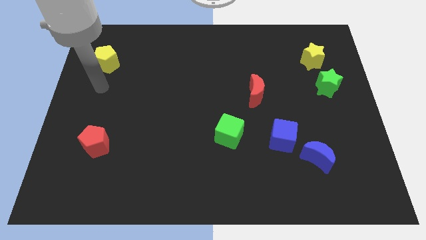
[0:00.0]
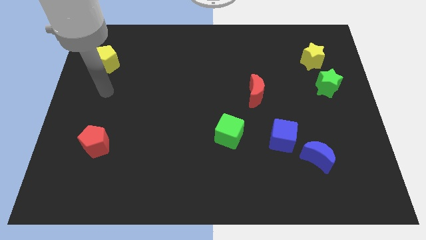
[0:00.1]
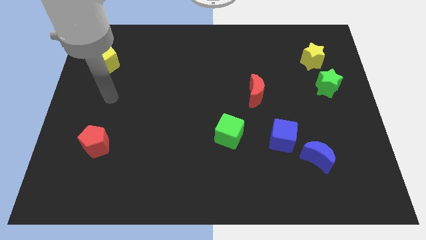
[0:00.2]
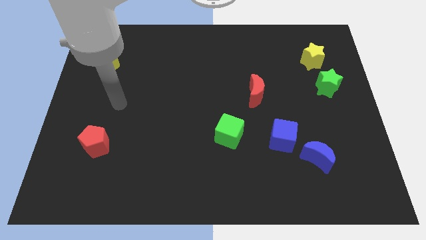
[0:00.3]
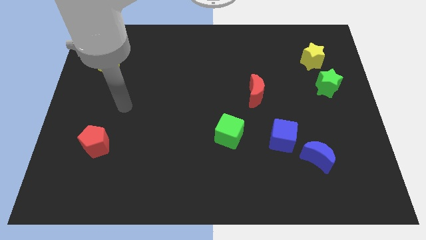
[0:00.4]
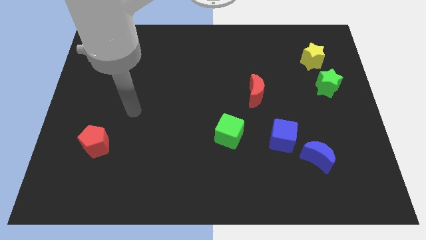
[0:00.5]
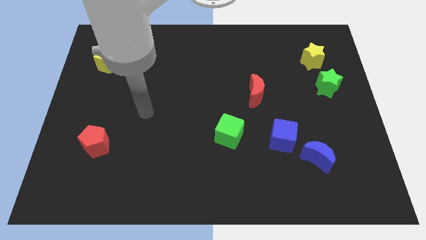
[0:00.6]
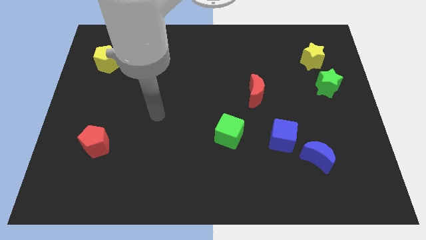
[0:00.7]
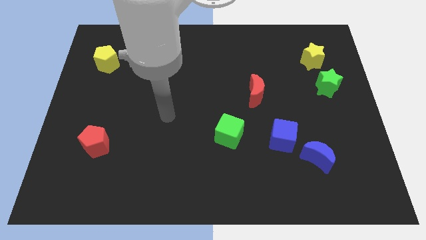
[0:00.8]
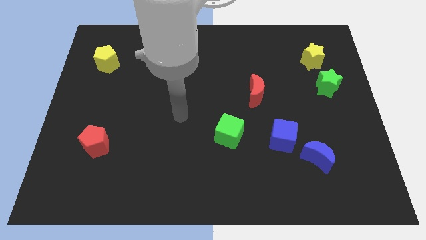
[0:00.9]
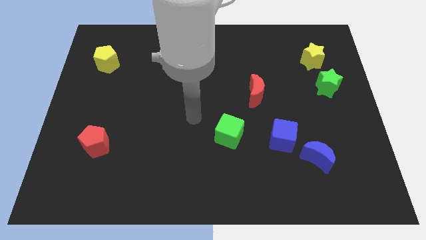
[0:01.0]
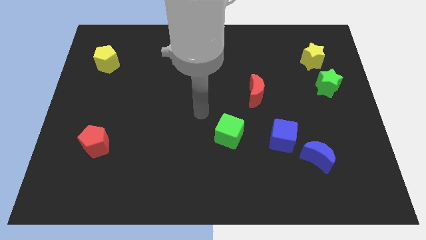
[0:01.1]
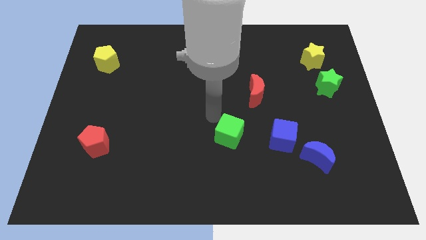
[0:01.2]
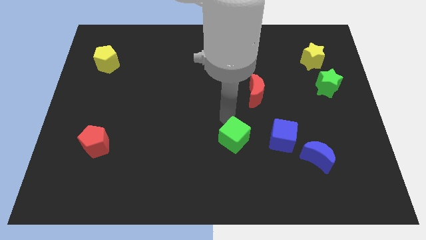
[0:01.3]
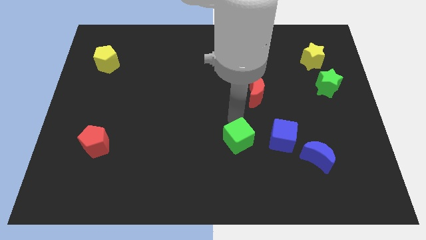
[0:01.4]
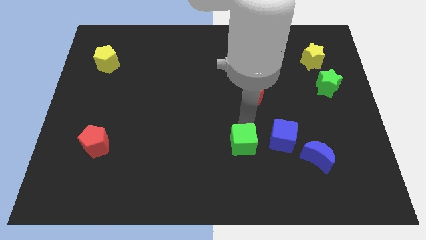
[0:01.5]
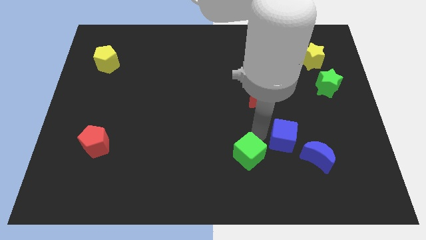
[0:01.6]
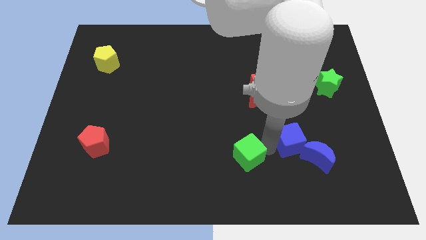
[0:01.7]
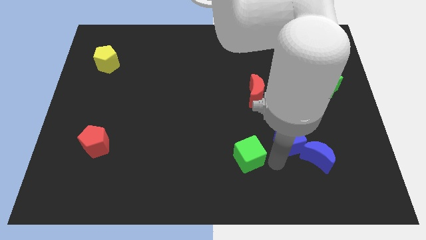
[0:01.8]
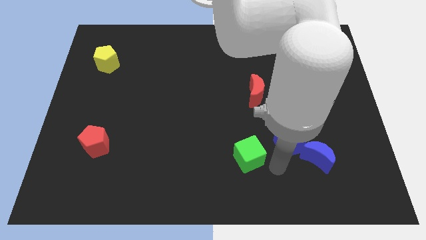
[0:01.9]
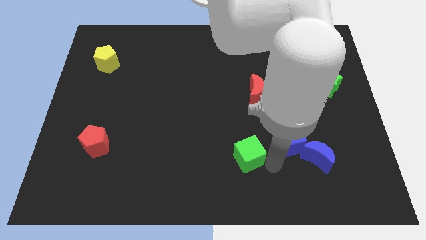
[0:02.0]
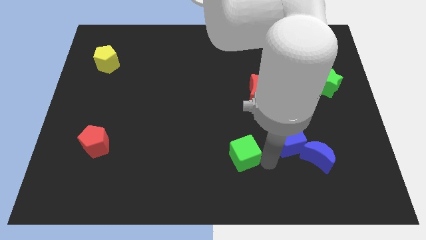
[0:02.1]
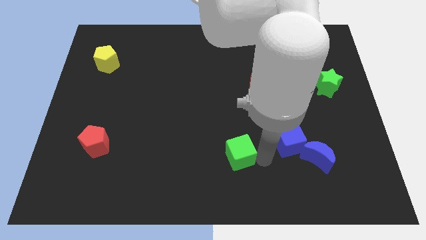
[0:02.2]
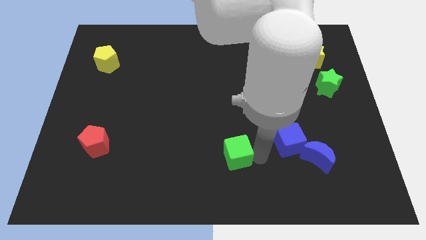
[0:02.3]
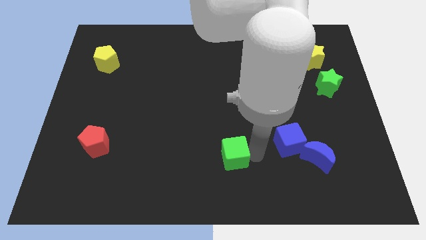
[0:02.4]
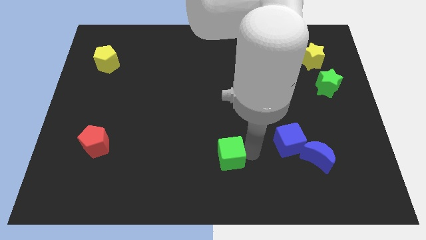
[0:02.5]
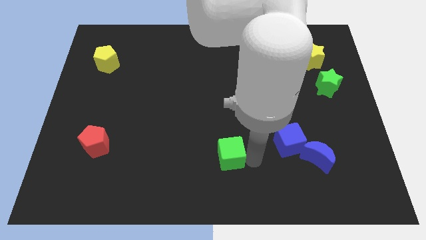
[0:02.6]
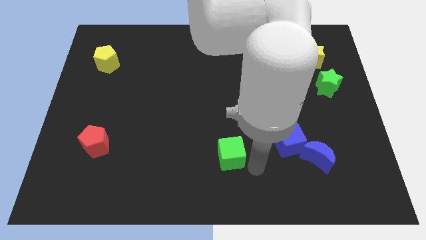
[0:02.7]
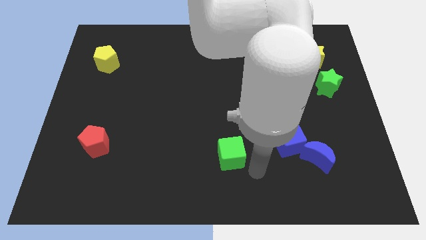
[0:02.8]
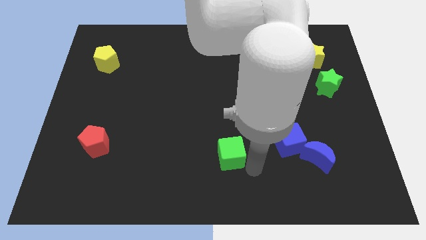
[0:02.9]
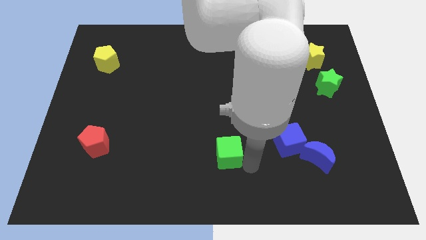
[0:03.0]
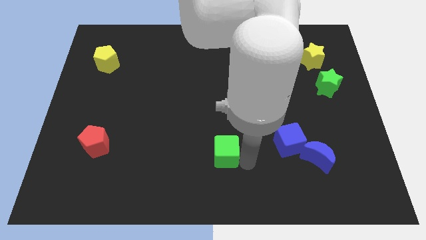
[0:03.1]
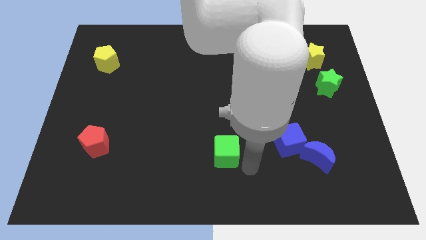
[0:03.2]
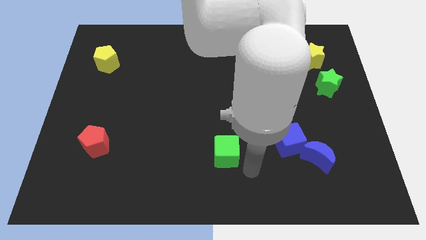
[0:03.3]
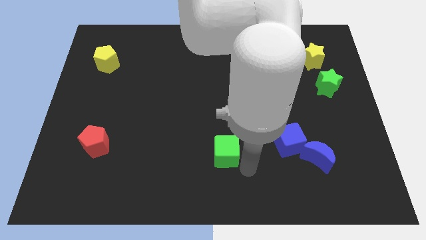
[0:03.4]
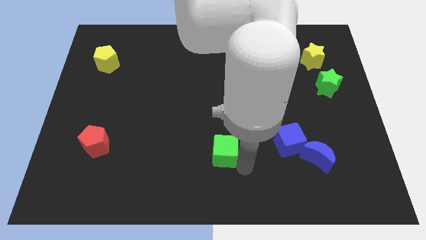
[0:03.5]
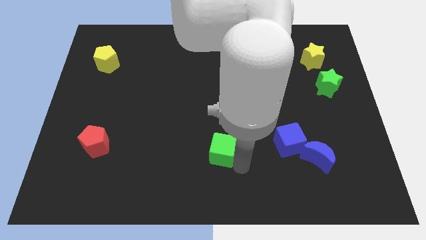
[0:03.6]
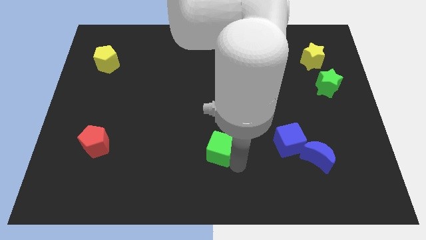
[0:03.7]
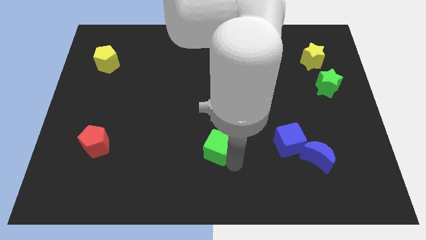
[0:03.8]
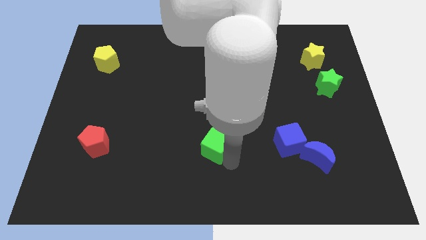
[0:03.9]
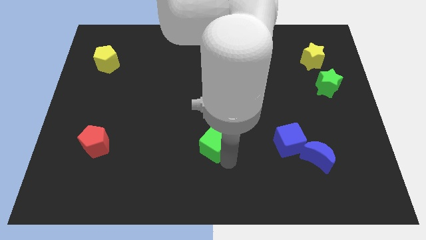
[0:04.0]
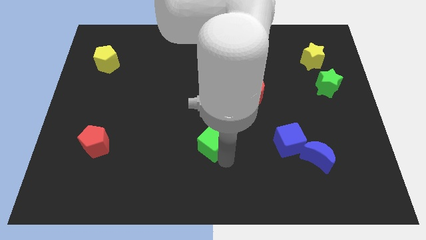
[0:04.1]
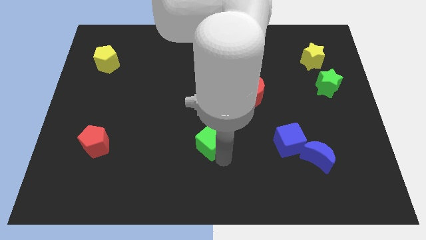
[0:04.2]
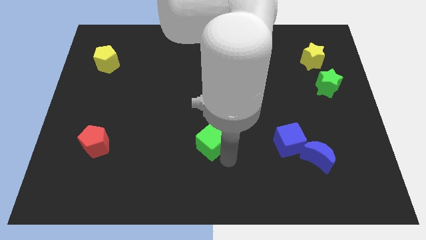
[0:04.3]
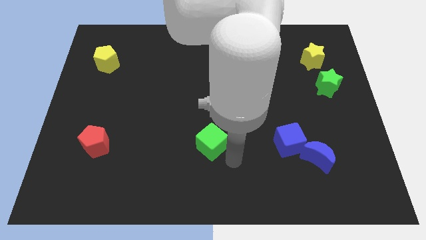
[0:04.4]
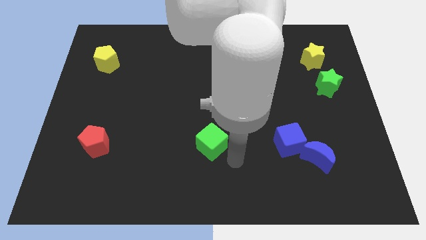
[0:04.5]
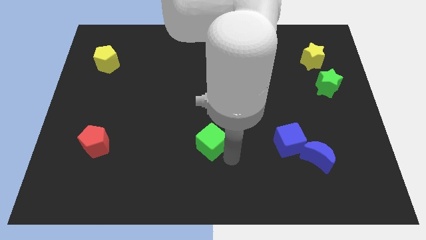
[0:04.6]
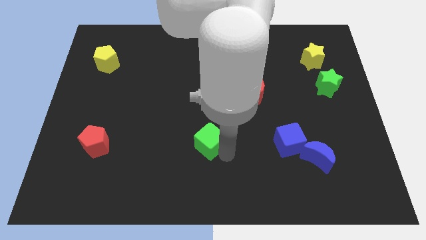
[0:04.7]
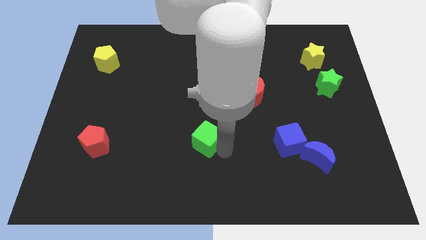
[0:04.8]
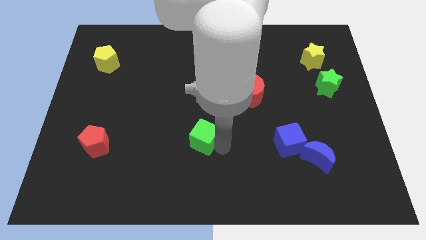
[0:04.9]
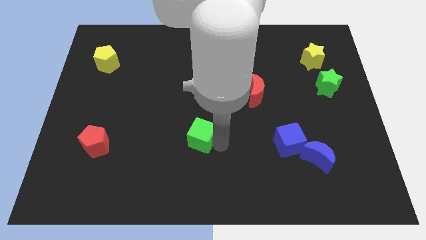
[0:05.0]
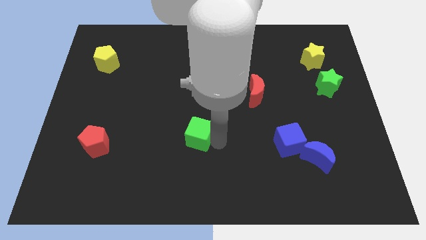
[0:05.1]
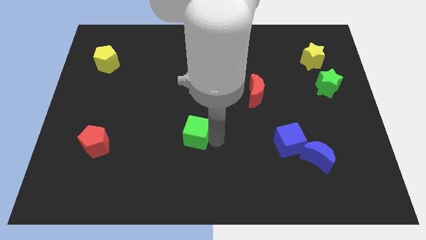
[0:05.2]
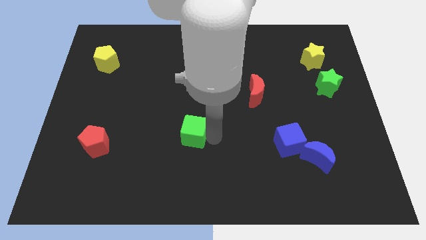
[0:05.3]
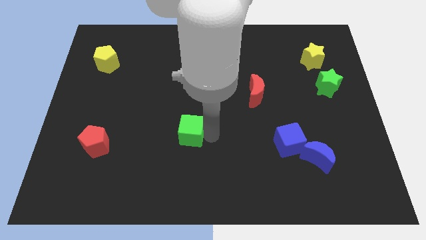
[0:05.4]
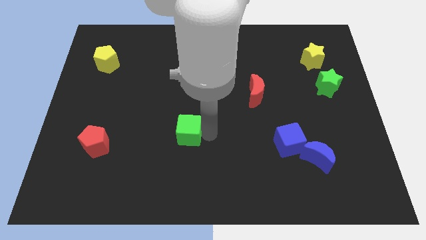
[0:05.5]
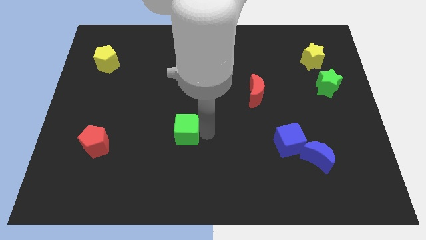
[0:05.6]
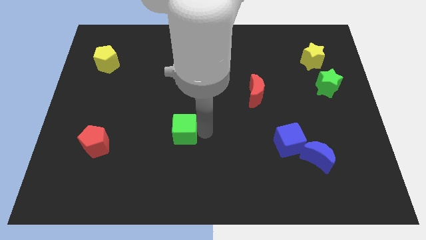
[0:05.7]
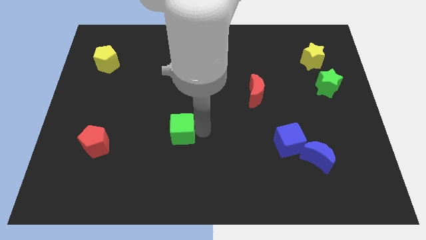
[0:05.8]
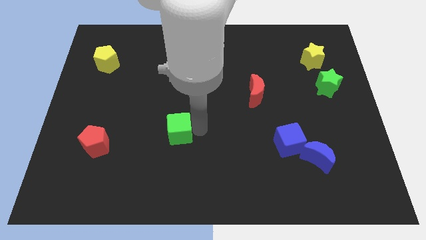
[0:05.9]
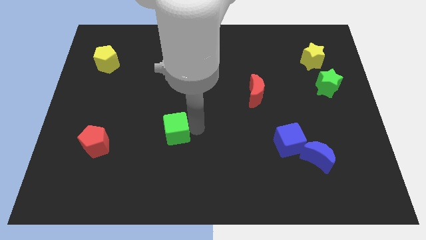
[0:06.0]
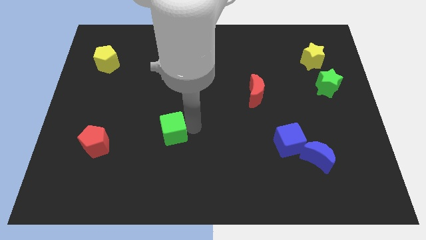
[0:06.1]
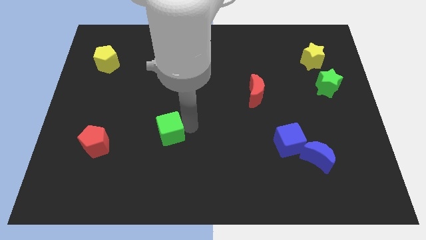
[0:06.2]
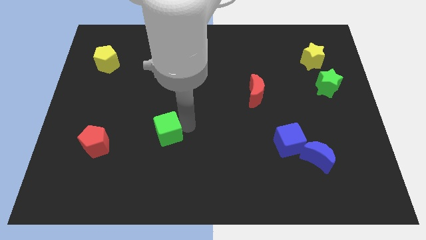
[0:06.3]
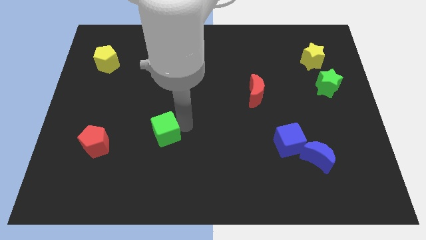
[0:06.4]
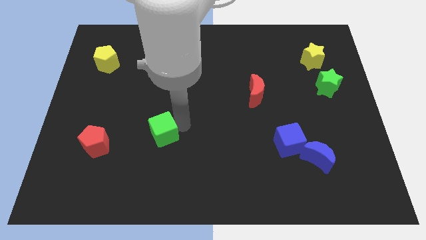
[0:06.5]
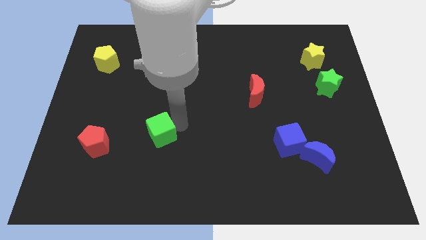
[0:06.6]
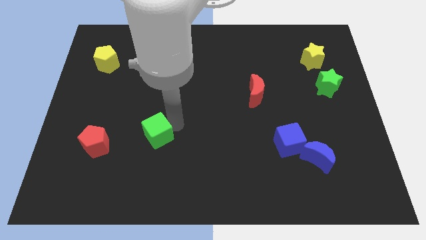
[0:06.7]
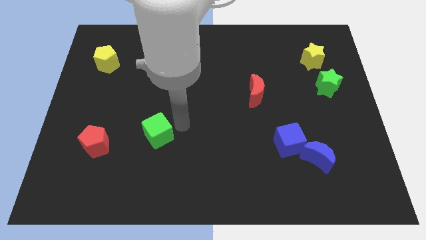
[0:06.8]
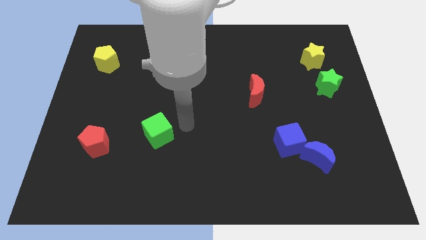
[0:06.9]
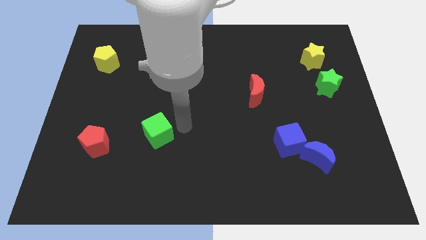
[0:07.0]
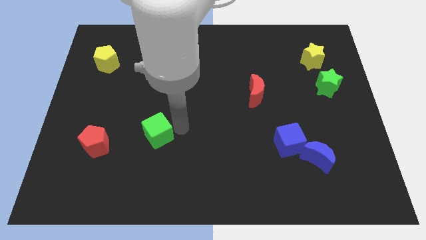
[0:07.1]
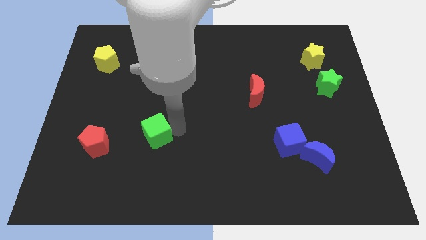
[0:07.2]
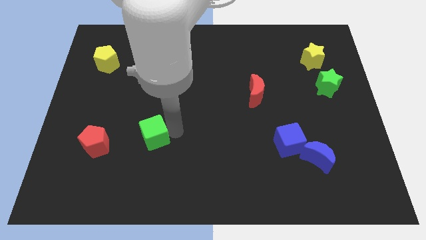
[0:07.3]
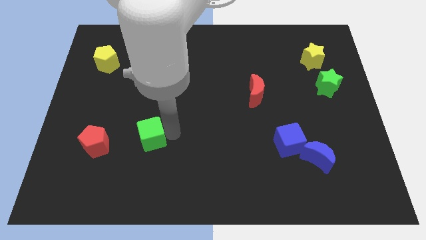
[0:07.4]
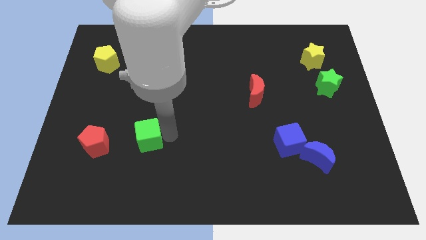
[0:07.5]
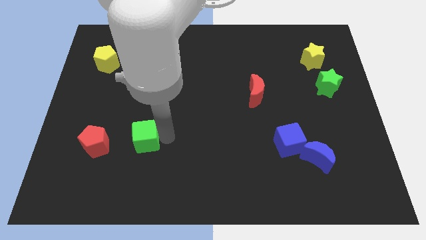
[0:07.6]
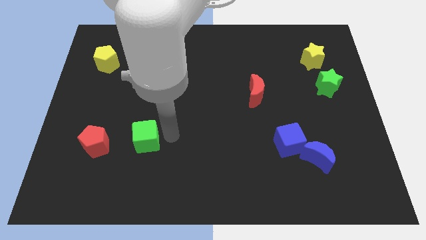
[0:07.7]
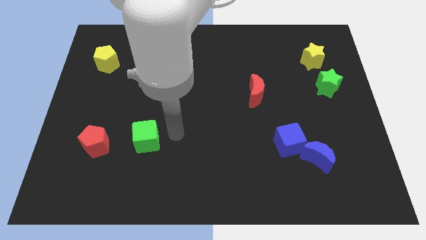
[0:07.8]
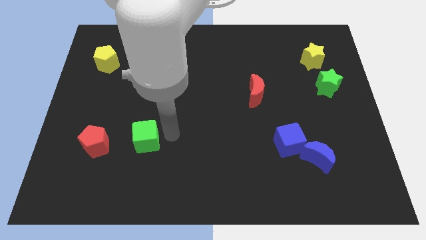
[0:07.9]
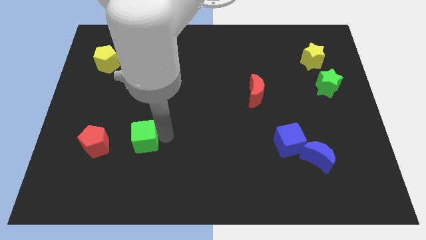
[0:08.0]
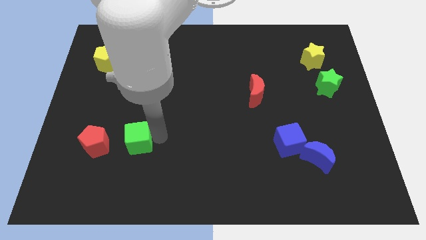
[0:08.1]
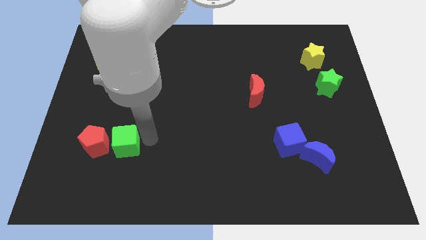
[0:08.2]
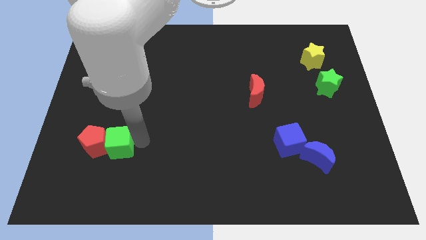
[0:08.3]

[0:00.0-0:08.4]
put the green cube towards the red pentagon
